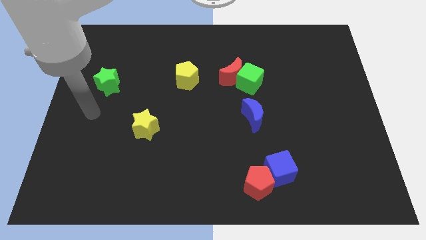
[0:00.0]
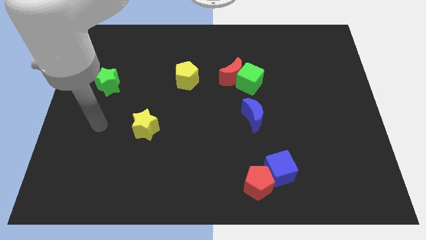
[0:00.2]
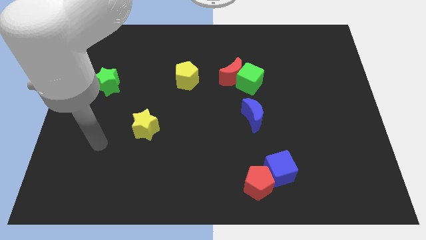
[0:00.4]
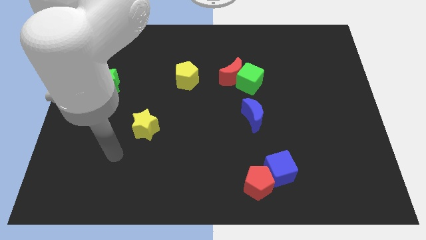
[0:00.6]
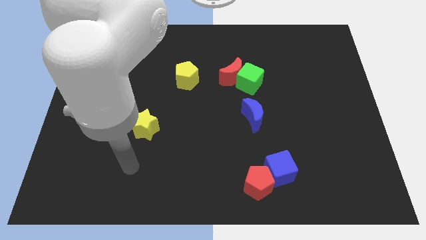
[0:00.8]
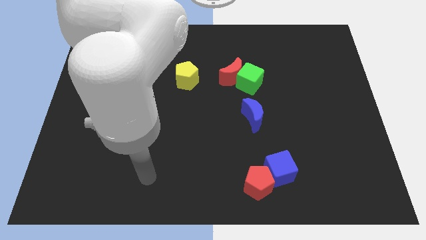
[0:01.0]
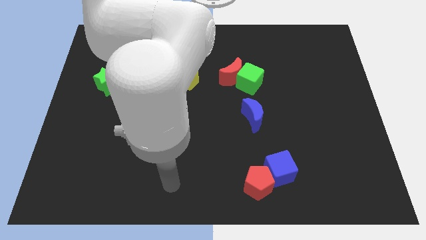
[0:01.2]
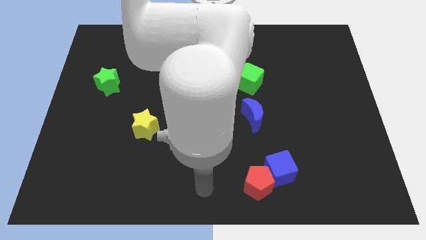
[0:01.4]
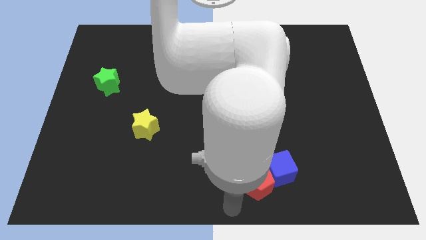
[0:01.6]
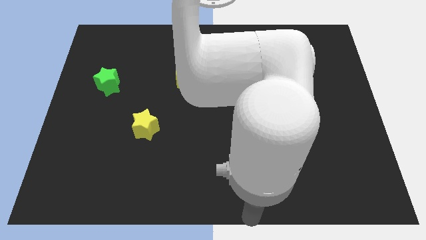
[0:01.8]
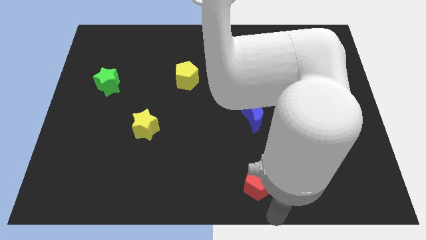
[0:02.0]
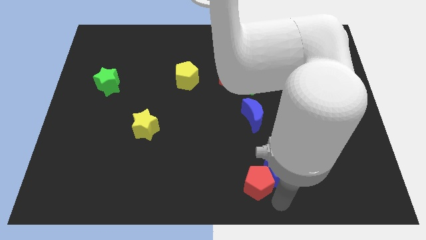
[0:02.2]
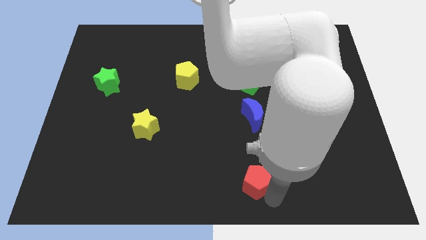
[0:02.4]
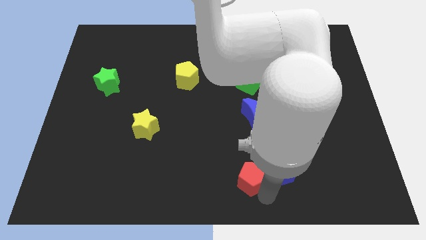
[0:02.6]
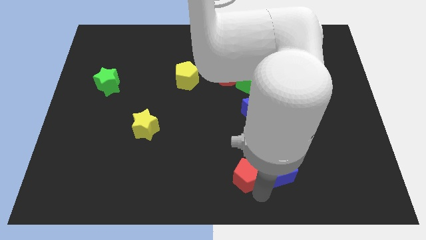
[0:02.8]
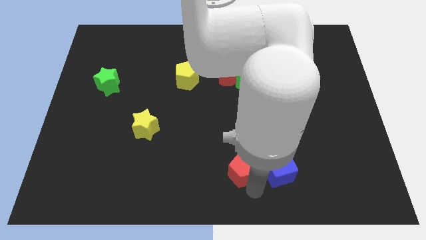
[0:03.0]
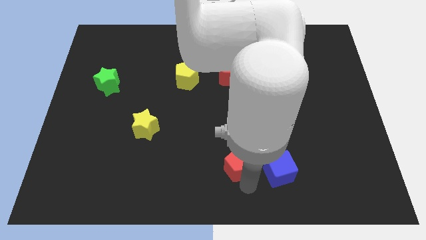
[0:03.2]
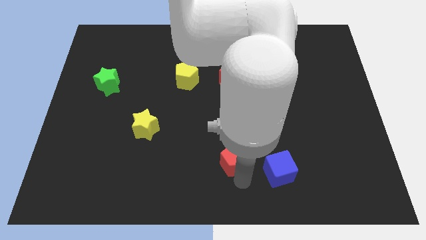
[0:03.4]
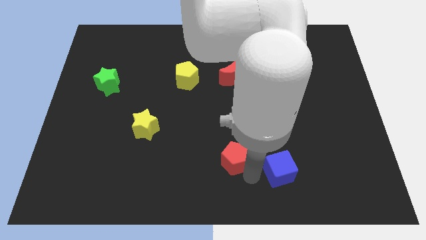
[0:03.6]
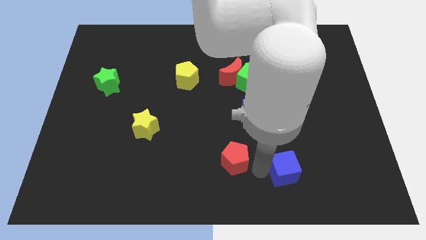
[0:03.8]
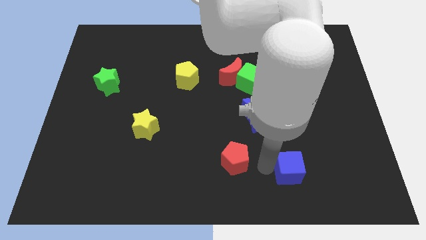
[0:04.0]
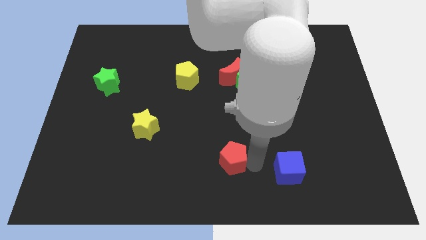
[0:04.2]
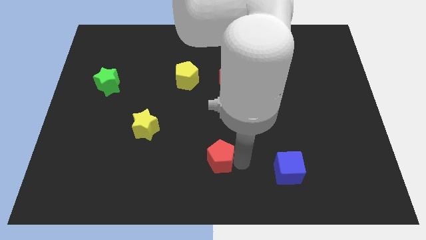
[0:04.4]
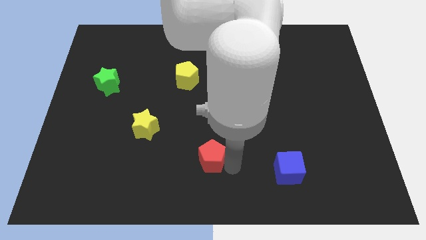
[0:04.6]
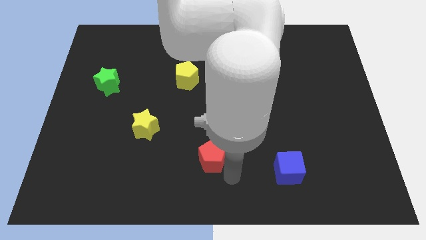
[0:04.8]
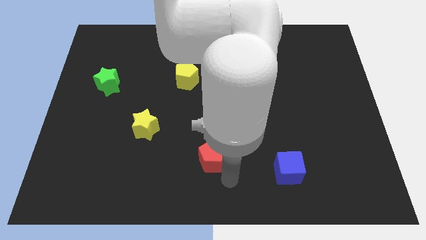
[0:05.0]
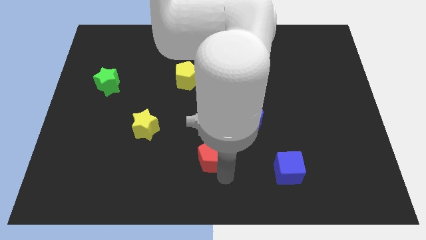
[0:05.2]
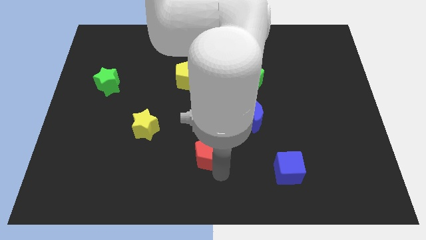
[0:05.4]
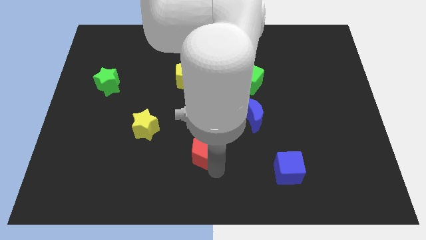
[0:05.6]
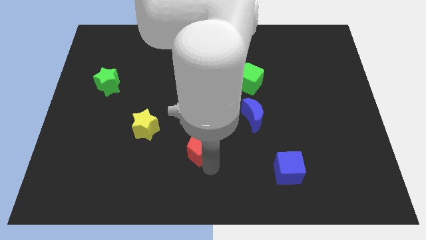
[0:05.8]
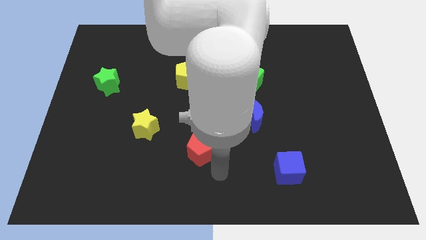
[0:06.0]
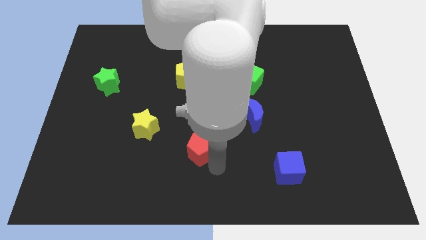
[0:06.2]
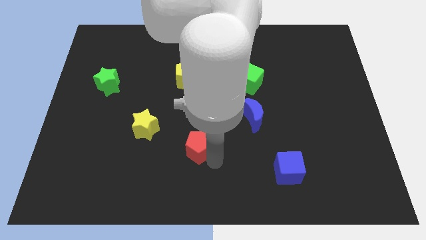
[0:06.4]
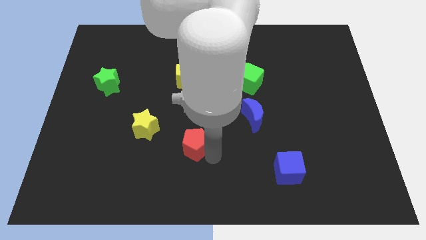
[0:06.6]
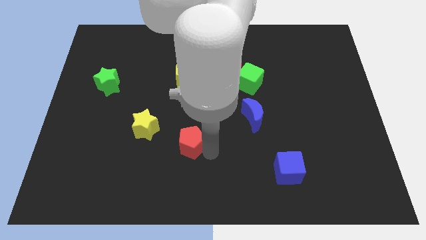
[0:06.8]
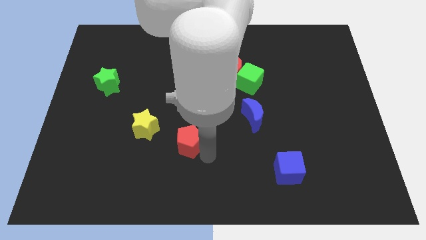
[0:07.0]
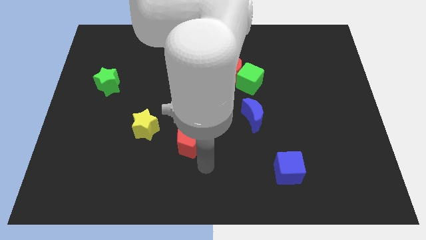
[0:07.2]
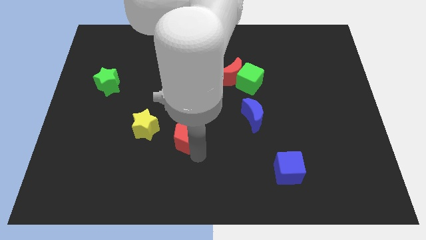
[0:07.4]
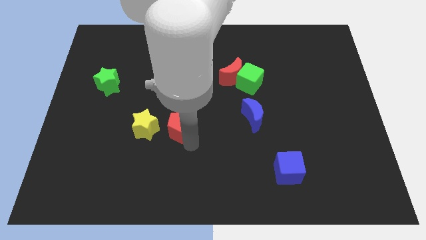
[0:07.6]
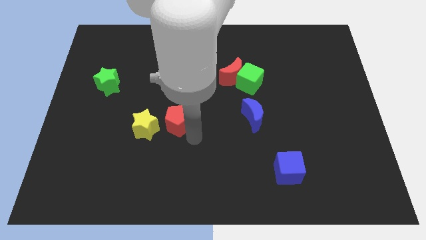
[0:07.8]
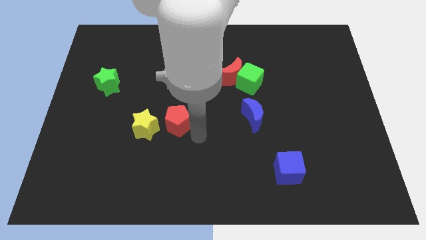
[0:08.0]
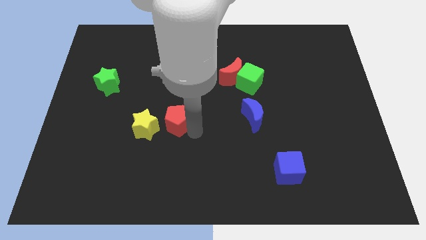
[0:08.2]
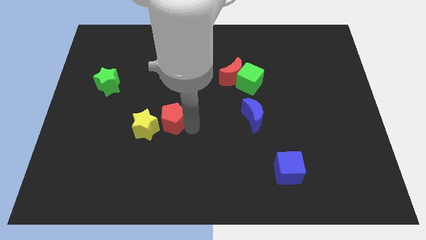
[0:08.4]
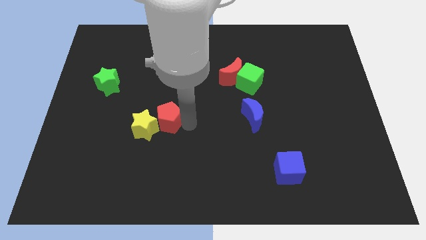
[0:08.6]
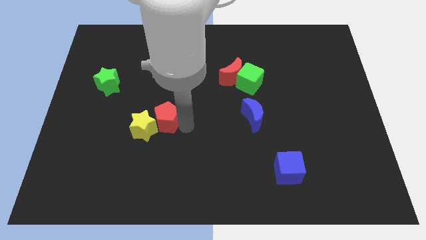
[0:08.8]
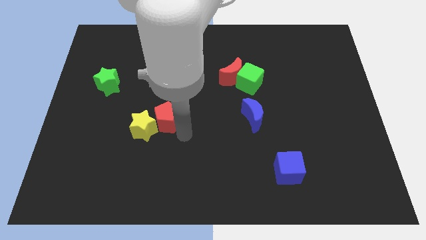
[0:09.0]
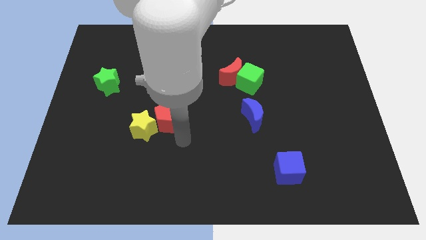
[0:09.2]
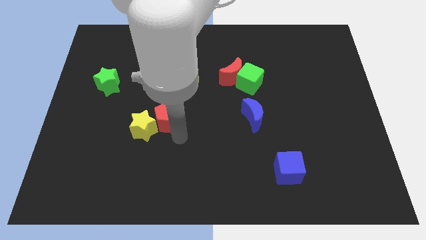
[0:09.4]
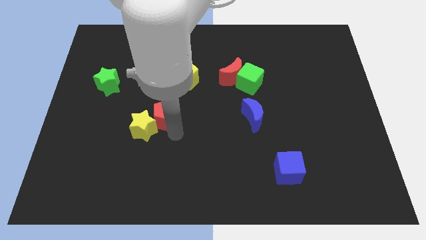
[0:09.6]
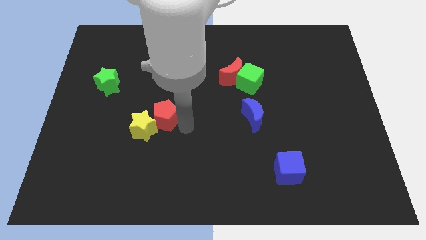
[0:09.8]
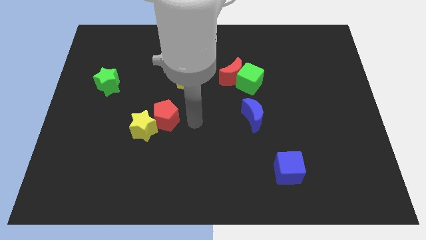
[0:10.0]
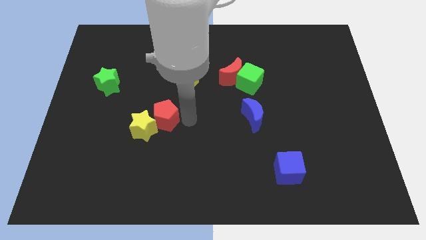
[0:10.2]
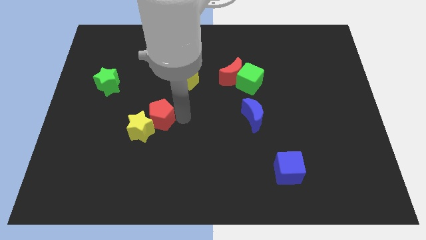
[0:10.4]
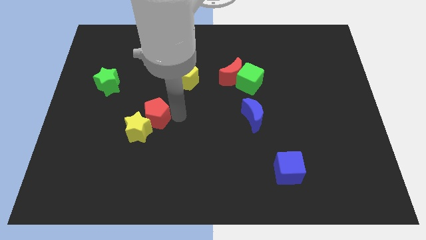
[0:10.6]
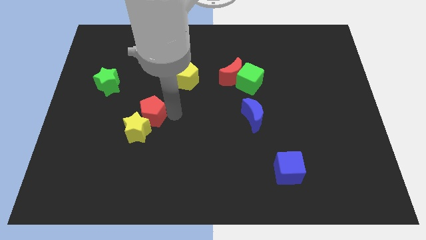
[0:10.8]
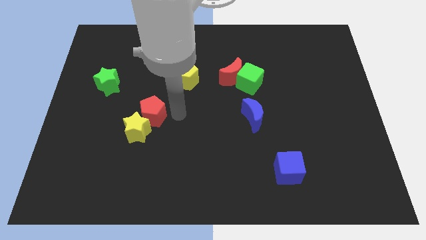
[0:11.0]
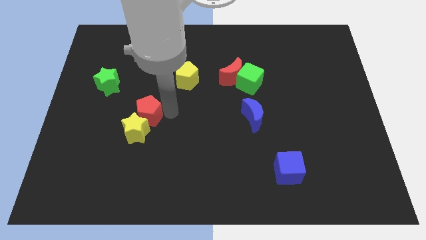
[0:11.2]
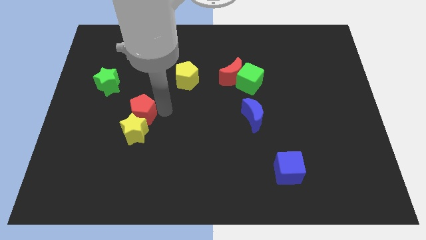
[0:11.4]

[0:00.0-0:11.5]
slide the red pentagon to the top left of the yellow star

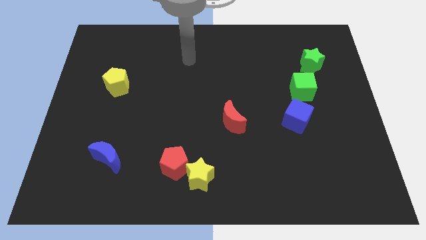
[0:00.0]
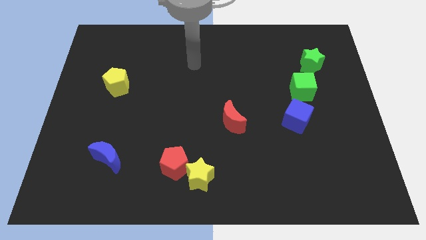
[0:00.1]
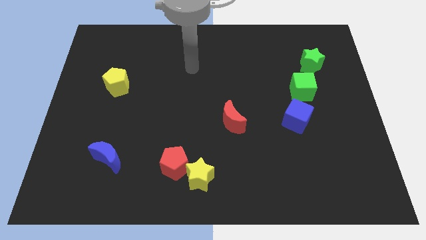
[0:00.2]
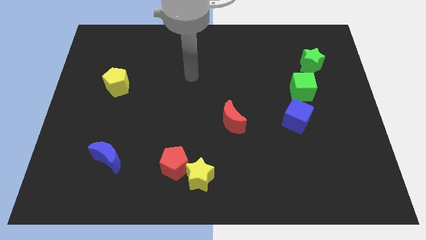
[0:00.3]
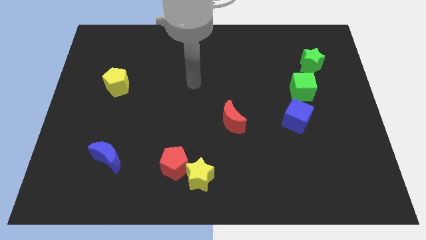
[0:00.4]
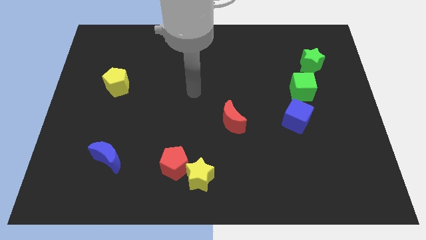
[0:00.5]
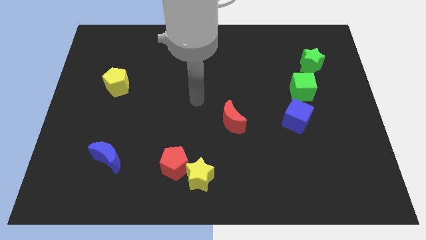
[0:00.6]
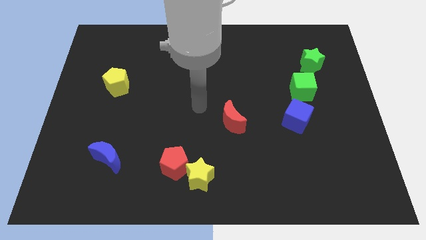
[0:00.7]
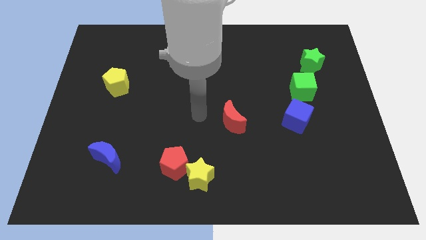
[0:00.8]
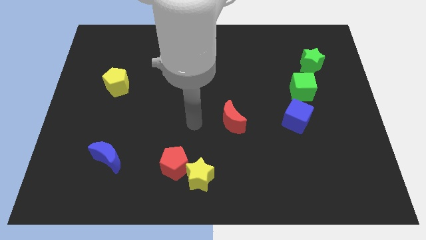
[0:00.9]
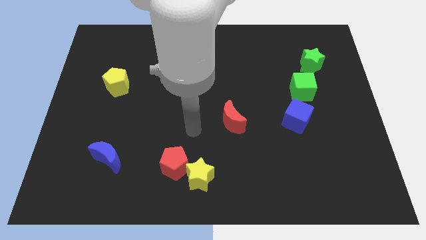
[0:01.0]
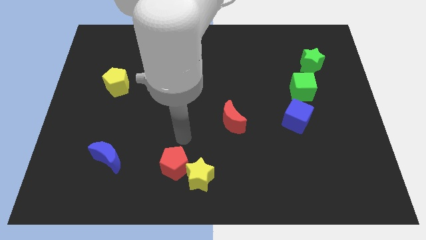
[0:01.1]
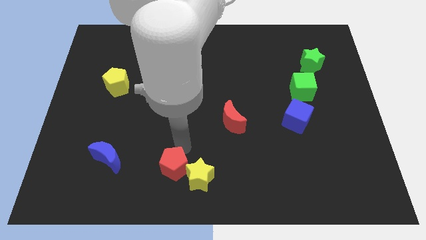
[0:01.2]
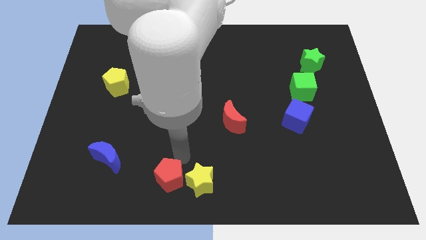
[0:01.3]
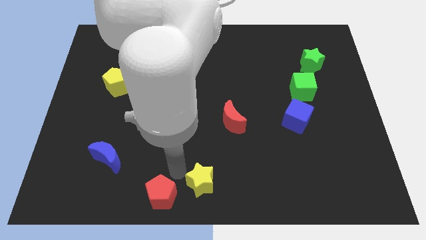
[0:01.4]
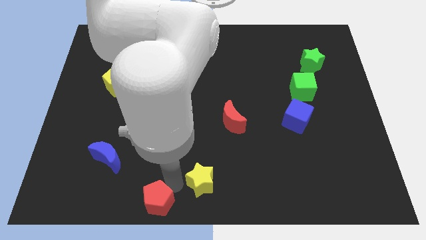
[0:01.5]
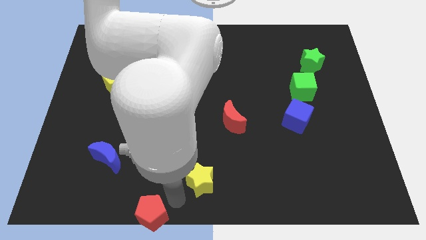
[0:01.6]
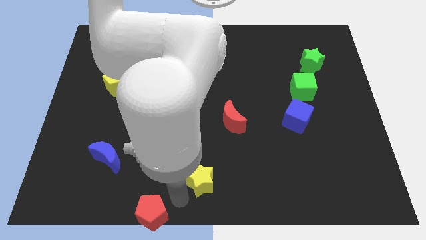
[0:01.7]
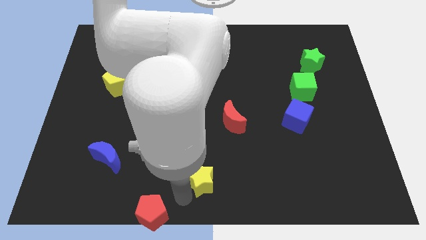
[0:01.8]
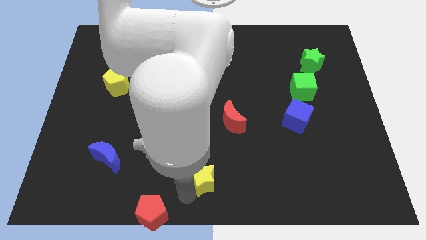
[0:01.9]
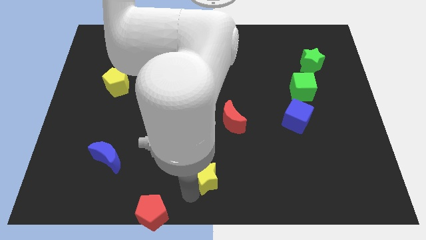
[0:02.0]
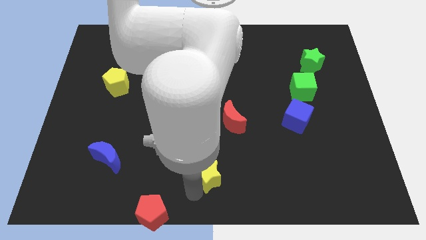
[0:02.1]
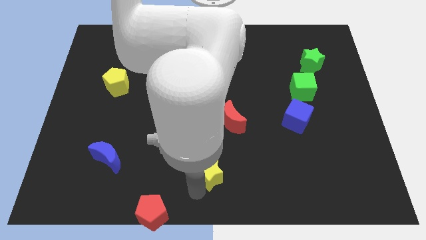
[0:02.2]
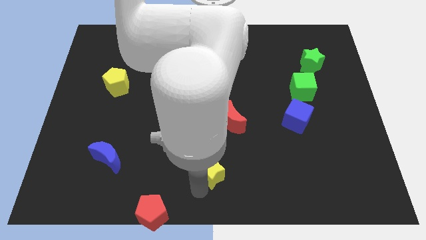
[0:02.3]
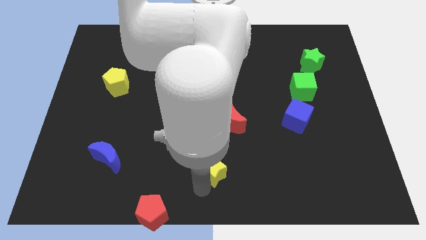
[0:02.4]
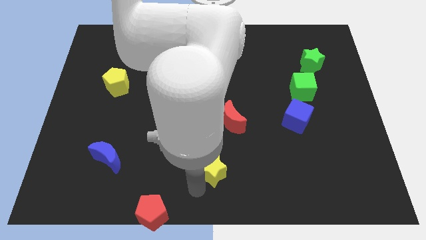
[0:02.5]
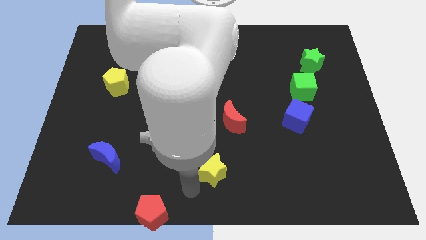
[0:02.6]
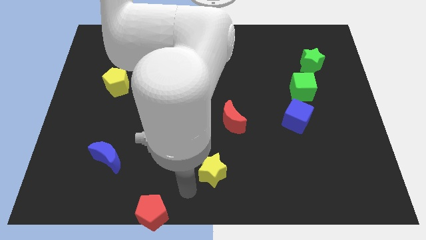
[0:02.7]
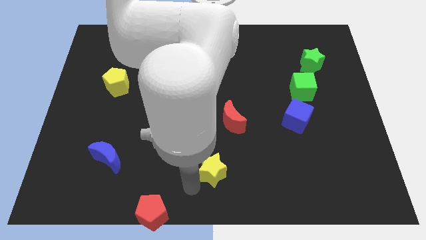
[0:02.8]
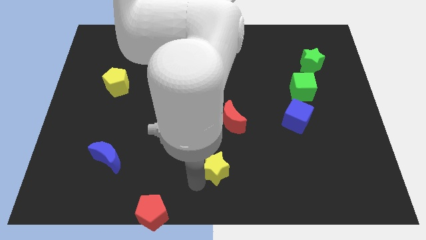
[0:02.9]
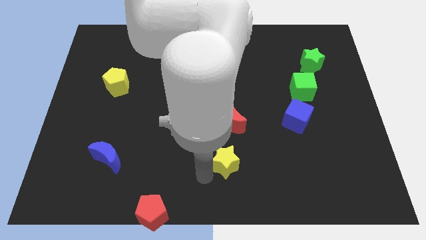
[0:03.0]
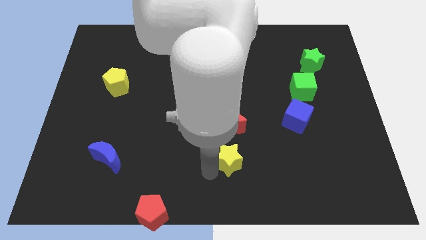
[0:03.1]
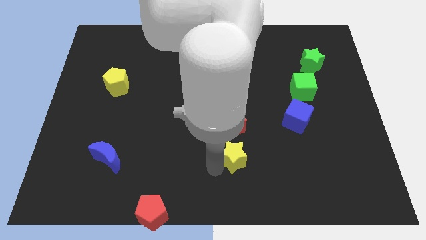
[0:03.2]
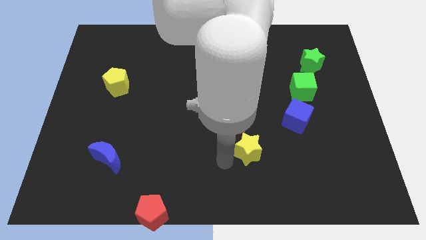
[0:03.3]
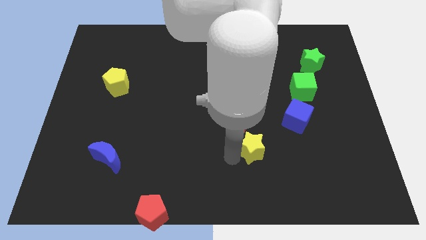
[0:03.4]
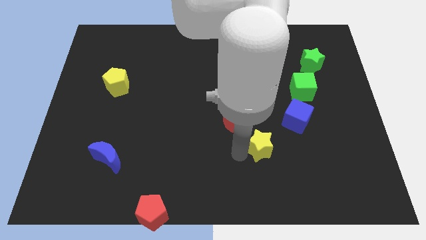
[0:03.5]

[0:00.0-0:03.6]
slide the yellow star to the bottom left side of the blue cube
